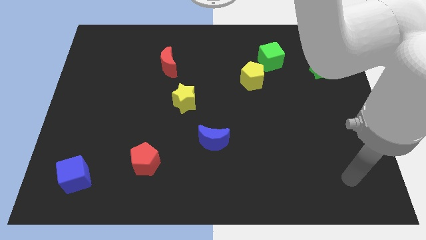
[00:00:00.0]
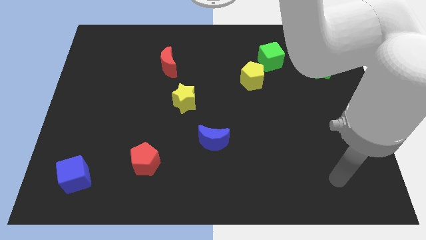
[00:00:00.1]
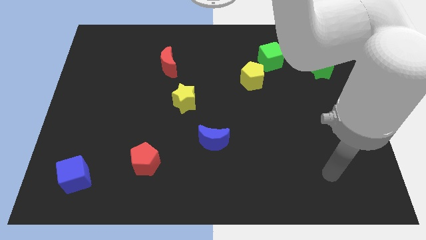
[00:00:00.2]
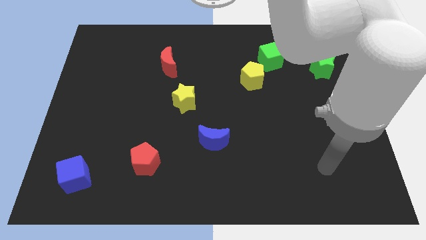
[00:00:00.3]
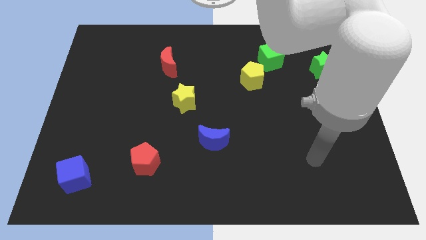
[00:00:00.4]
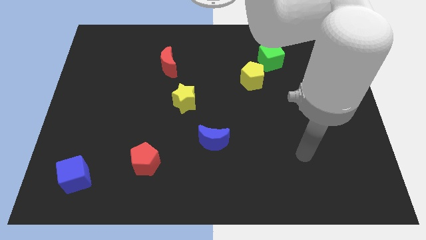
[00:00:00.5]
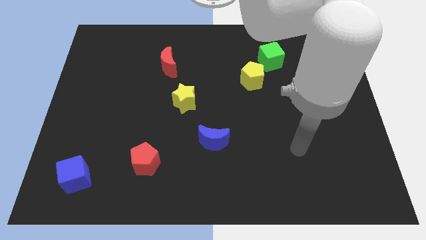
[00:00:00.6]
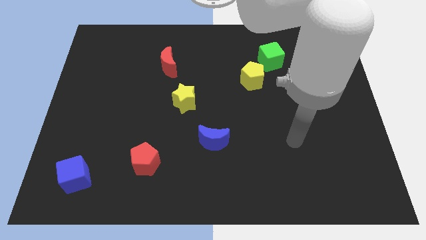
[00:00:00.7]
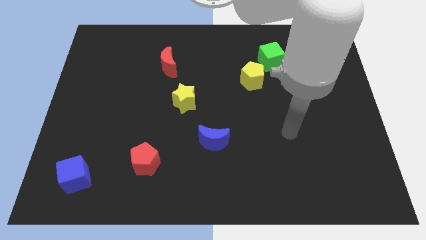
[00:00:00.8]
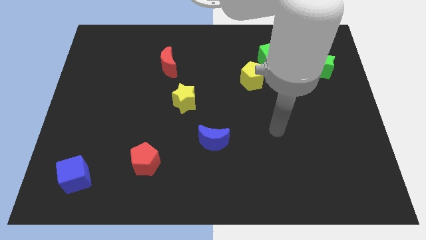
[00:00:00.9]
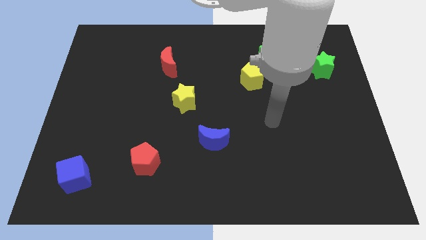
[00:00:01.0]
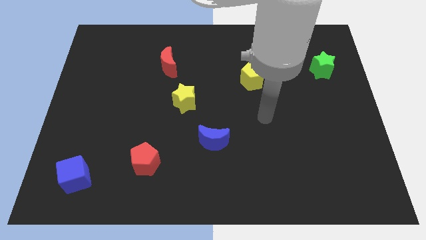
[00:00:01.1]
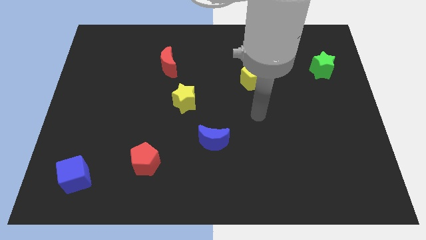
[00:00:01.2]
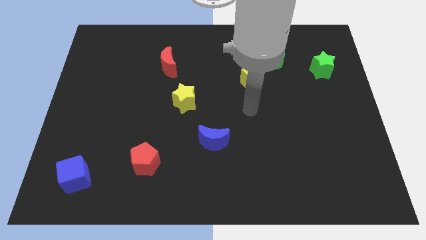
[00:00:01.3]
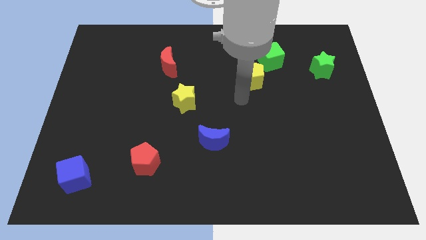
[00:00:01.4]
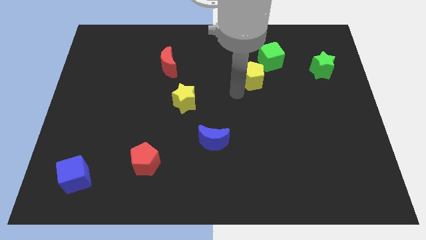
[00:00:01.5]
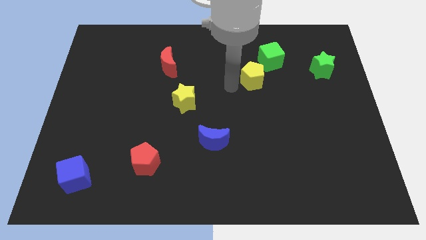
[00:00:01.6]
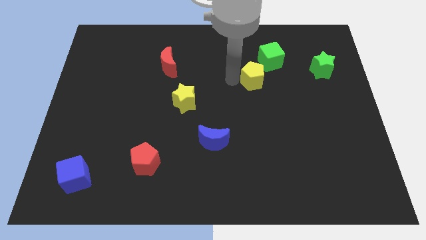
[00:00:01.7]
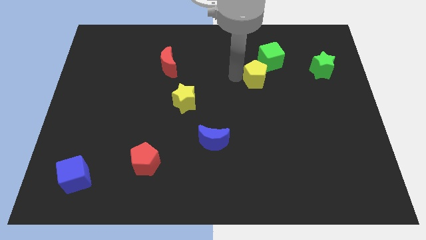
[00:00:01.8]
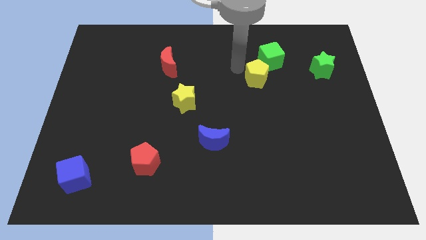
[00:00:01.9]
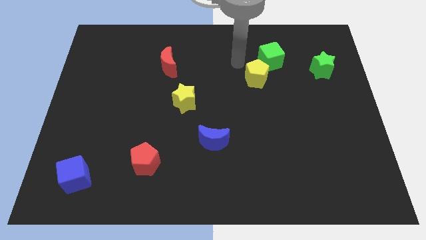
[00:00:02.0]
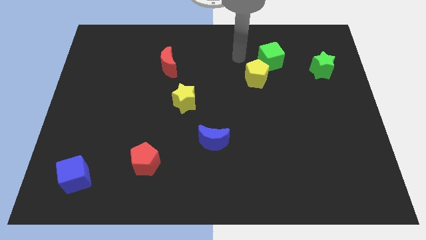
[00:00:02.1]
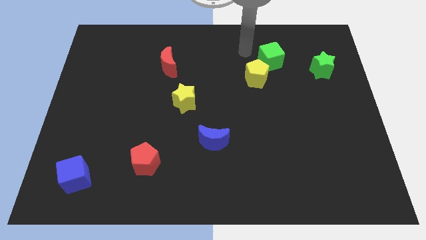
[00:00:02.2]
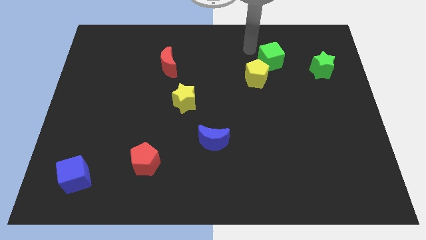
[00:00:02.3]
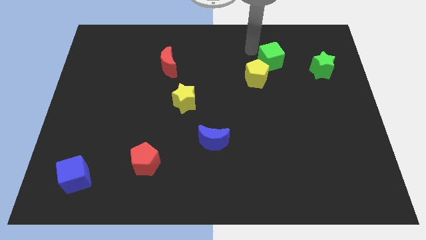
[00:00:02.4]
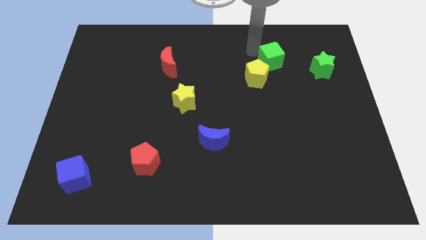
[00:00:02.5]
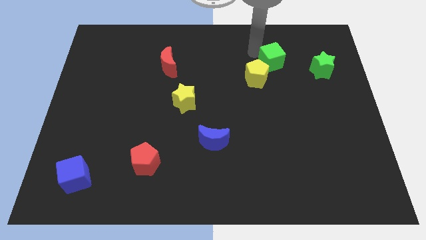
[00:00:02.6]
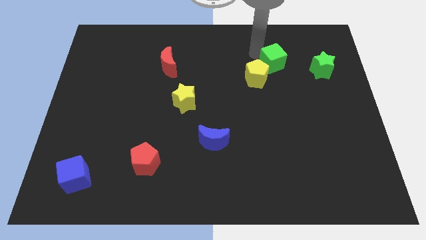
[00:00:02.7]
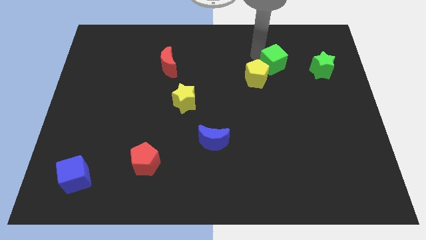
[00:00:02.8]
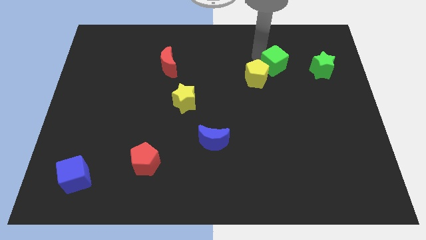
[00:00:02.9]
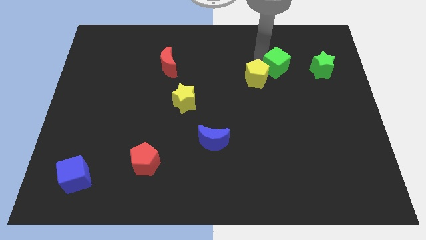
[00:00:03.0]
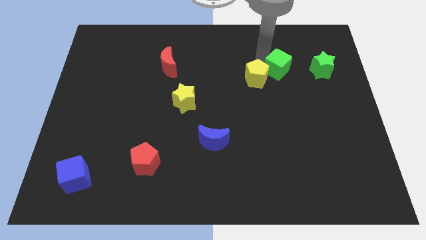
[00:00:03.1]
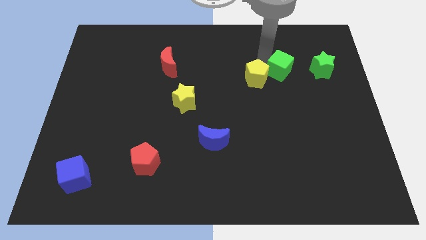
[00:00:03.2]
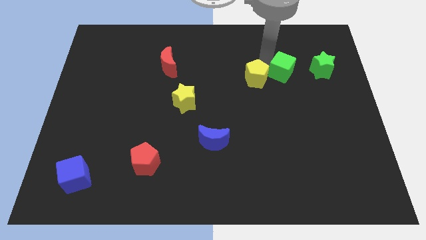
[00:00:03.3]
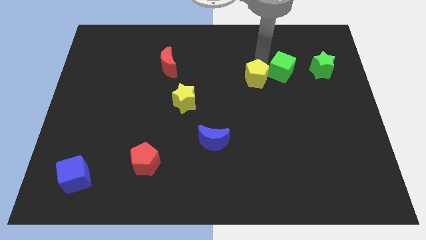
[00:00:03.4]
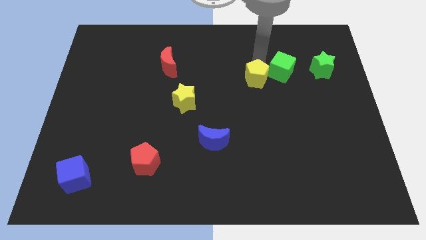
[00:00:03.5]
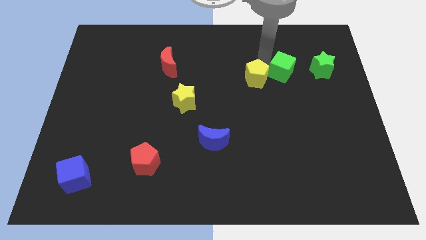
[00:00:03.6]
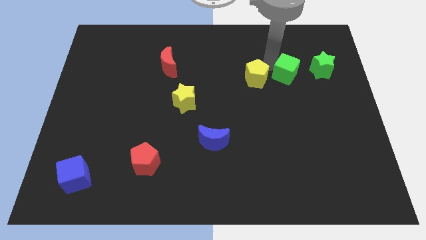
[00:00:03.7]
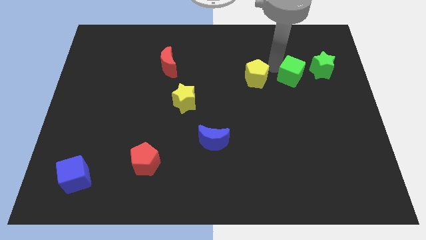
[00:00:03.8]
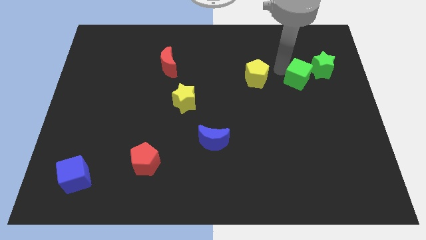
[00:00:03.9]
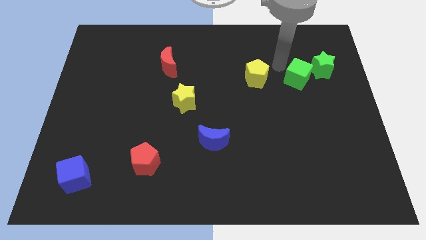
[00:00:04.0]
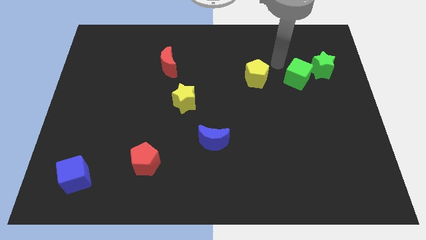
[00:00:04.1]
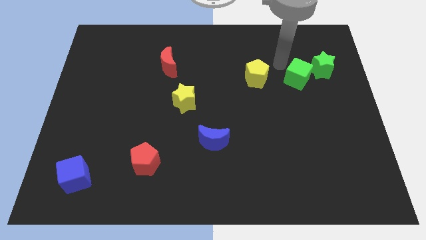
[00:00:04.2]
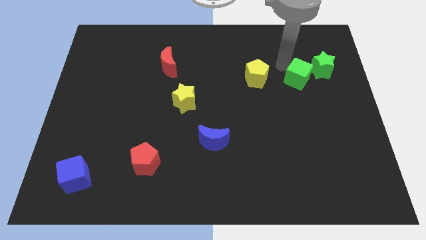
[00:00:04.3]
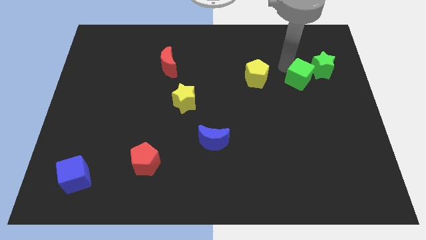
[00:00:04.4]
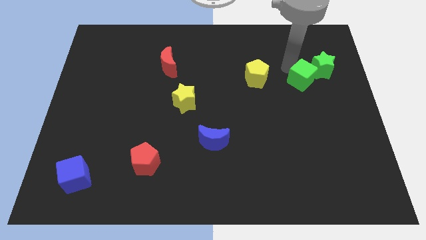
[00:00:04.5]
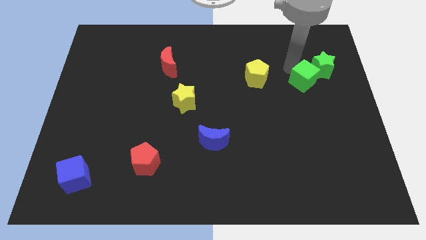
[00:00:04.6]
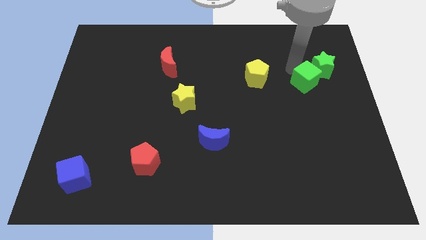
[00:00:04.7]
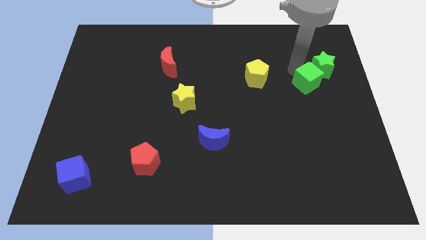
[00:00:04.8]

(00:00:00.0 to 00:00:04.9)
move the green cube to the bottom of the green star

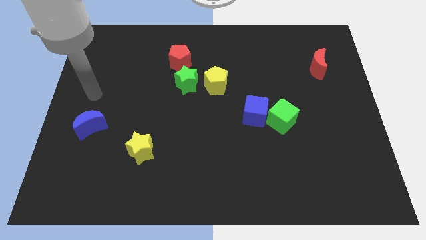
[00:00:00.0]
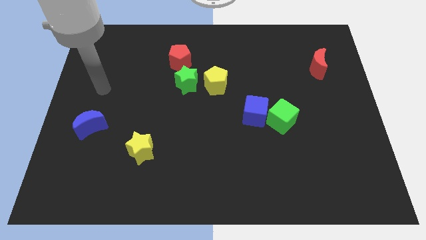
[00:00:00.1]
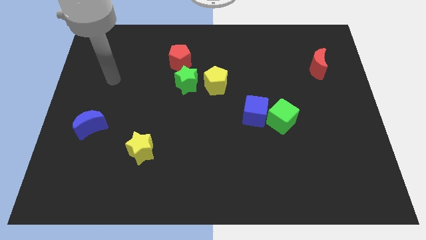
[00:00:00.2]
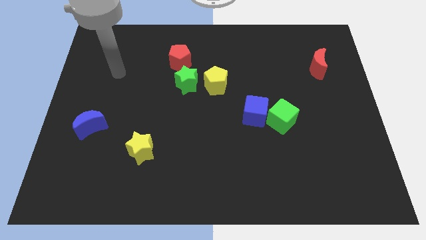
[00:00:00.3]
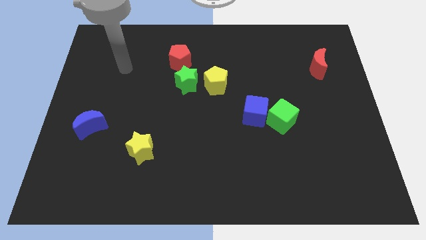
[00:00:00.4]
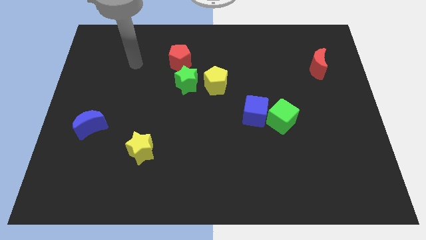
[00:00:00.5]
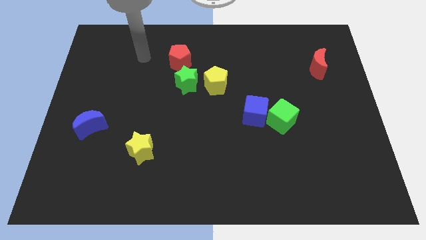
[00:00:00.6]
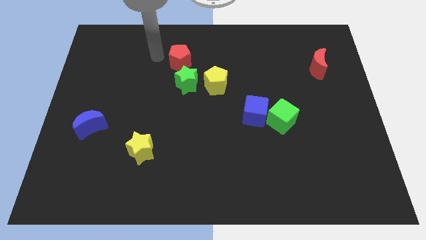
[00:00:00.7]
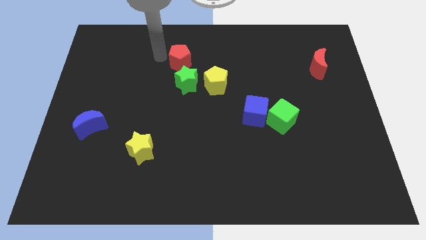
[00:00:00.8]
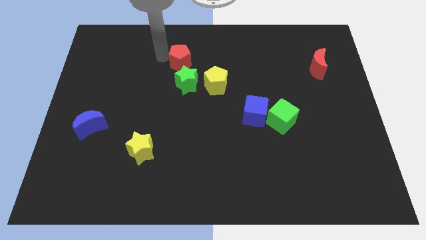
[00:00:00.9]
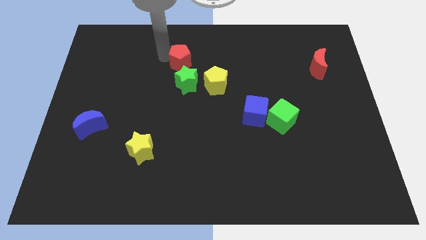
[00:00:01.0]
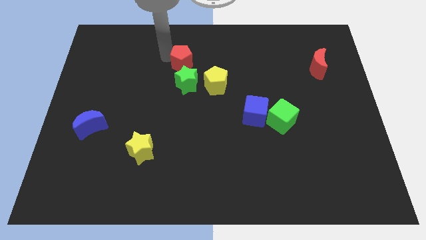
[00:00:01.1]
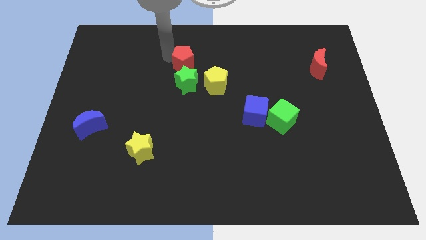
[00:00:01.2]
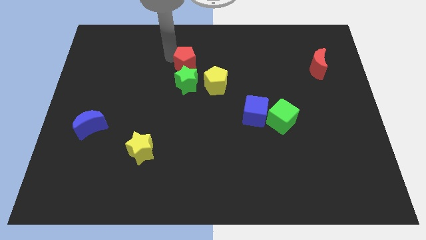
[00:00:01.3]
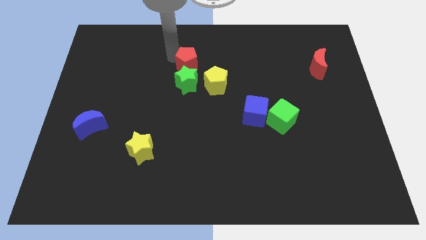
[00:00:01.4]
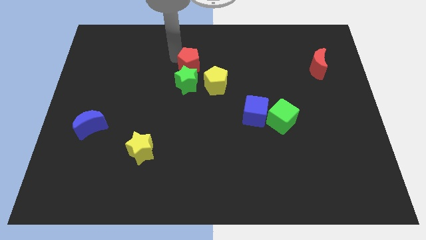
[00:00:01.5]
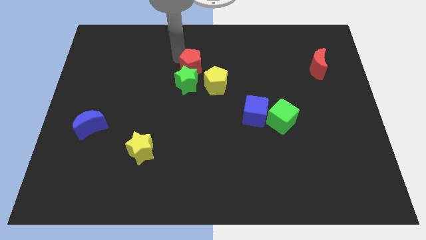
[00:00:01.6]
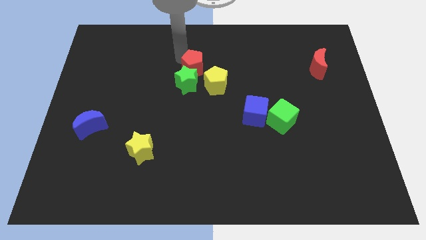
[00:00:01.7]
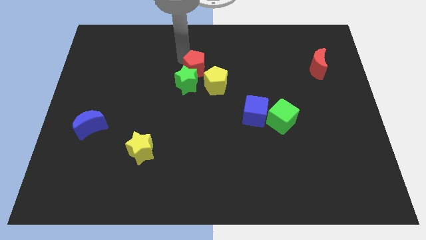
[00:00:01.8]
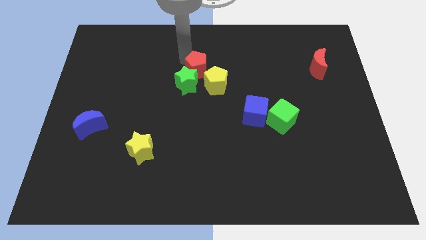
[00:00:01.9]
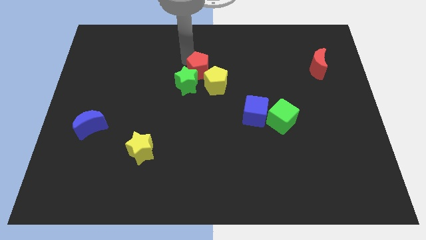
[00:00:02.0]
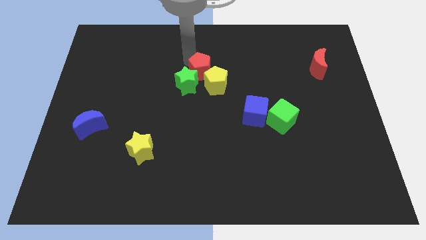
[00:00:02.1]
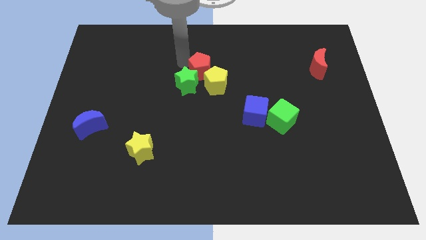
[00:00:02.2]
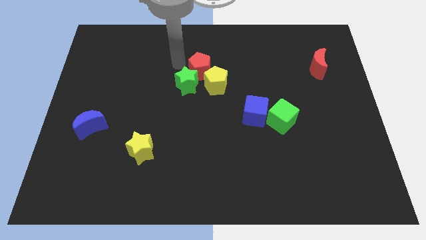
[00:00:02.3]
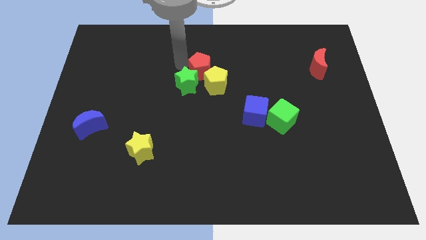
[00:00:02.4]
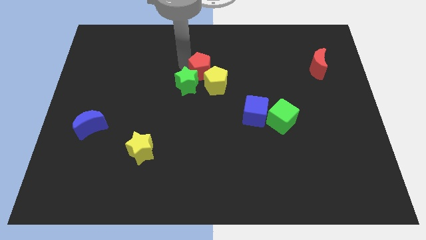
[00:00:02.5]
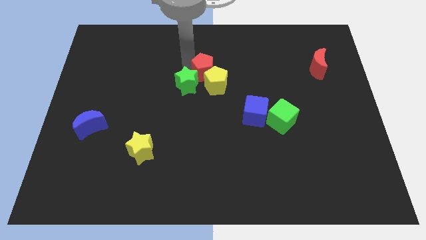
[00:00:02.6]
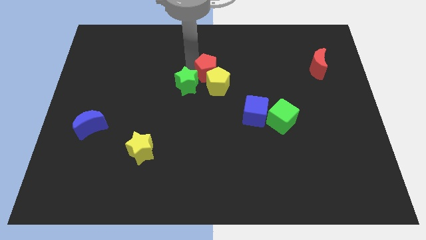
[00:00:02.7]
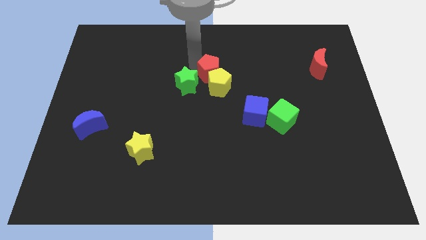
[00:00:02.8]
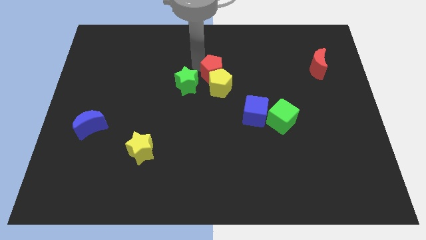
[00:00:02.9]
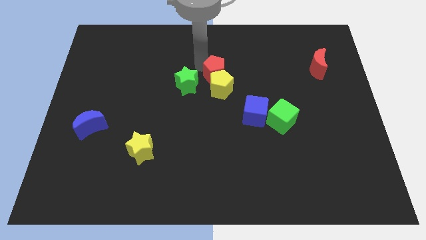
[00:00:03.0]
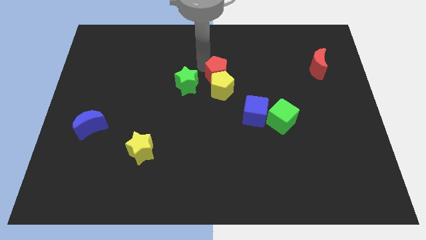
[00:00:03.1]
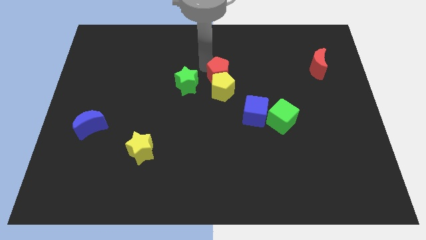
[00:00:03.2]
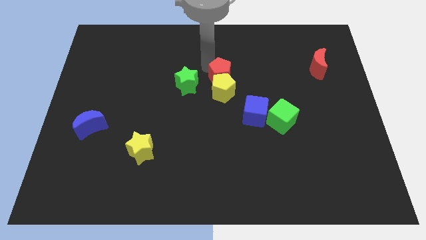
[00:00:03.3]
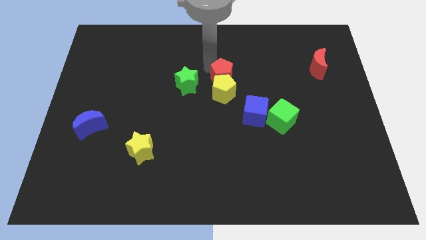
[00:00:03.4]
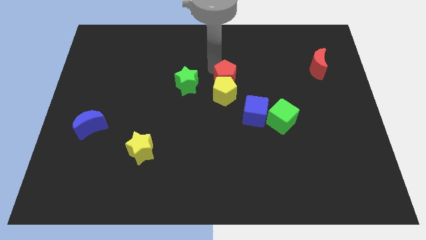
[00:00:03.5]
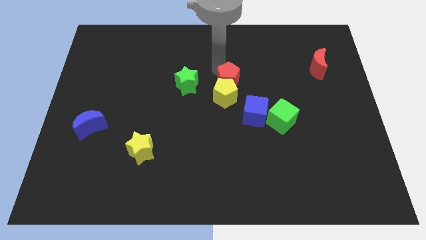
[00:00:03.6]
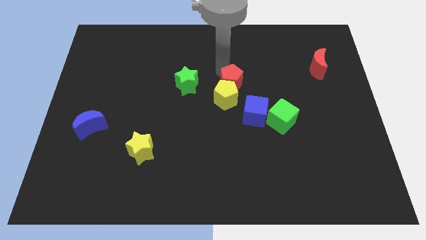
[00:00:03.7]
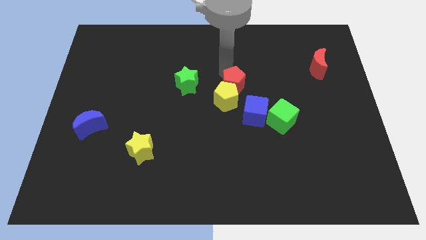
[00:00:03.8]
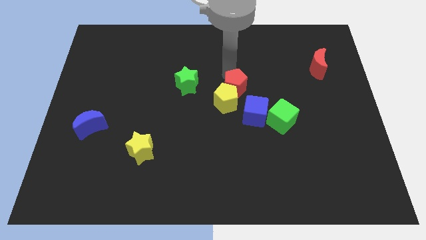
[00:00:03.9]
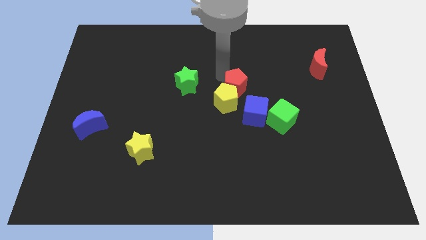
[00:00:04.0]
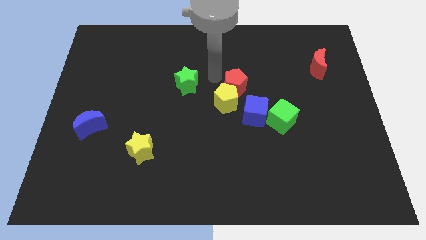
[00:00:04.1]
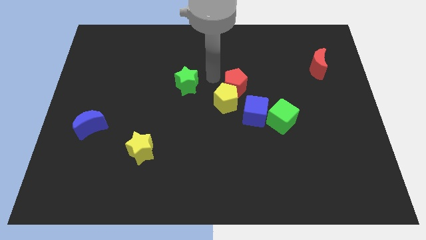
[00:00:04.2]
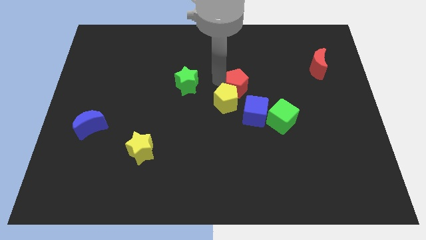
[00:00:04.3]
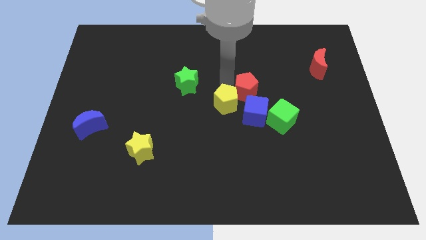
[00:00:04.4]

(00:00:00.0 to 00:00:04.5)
push the red pentagon just right of the yellow pentagon
